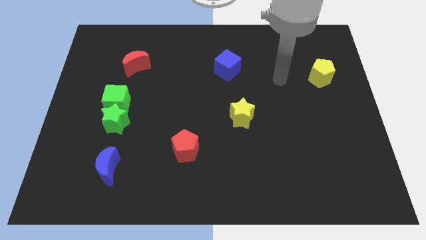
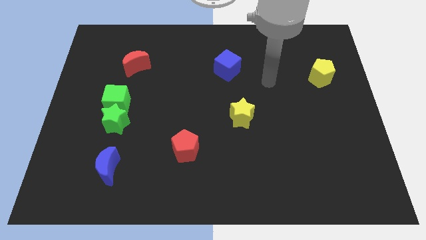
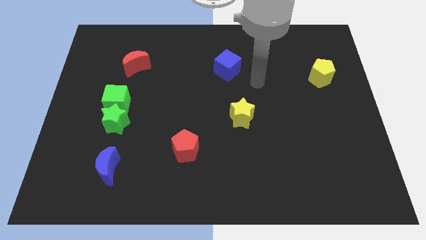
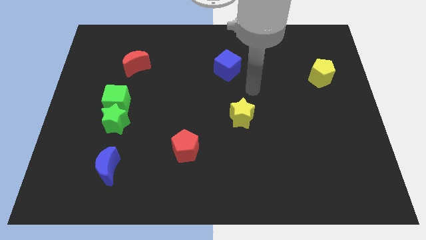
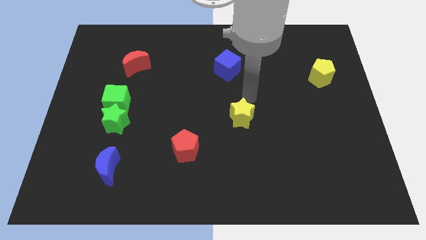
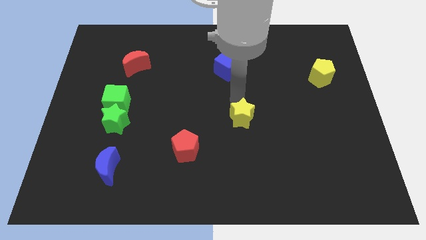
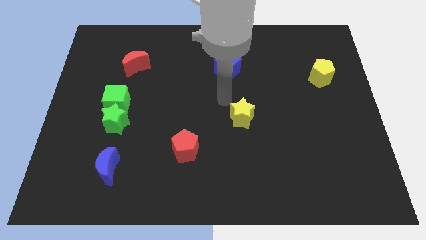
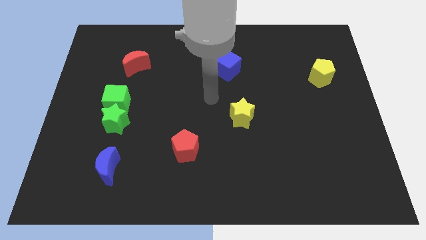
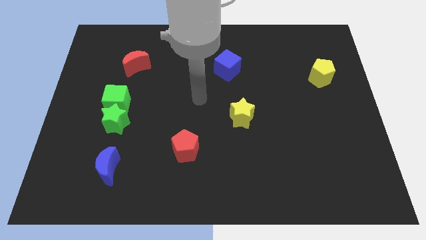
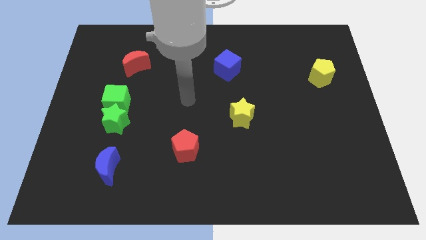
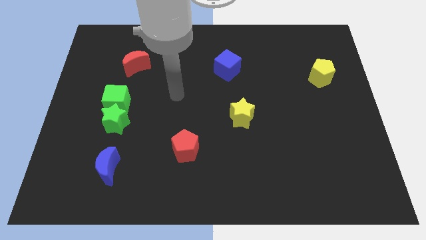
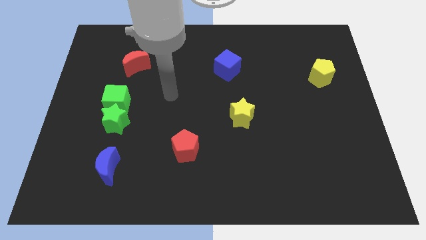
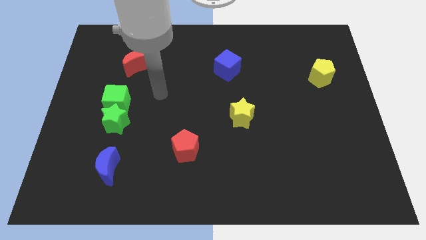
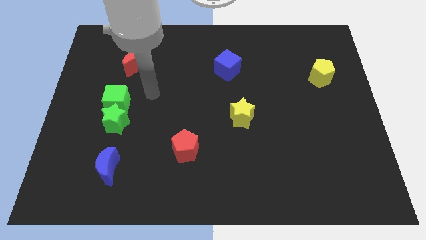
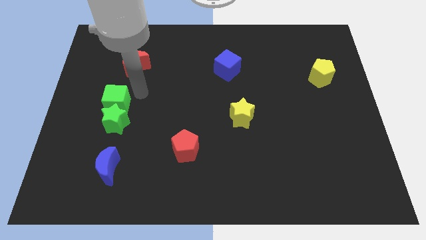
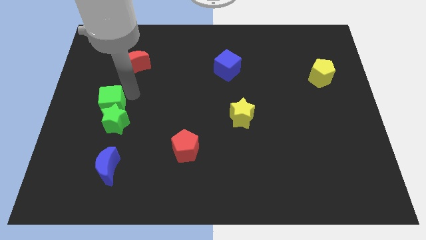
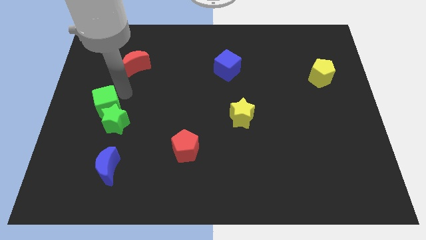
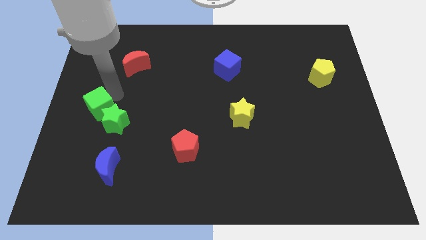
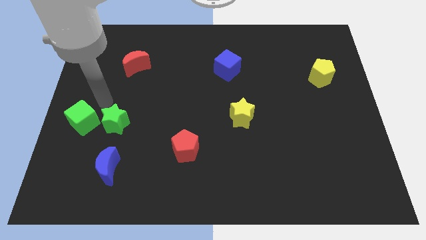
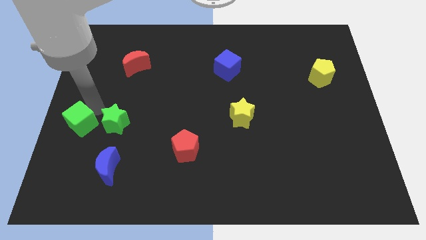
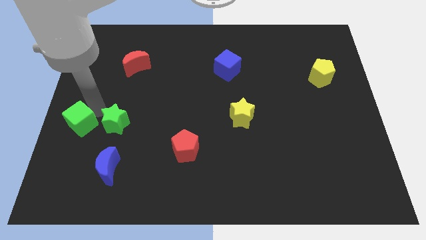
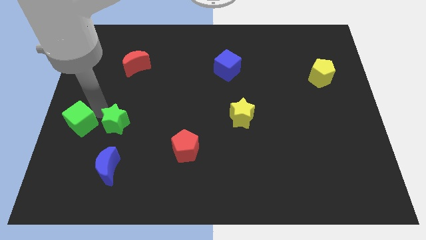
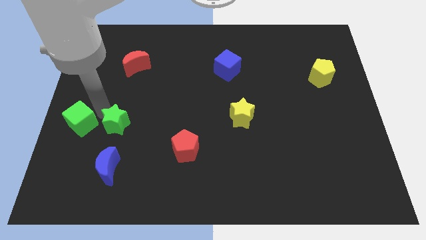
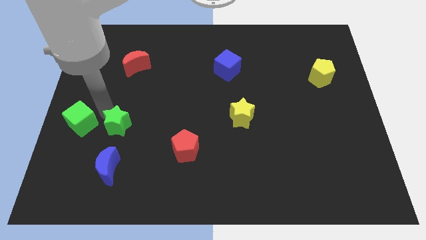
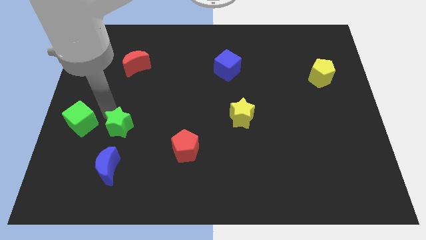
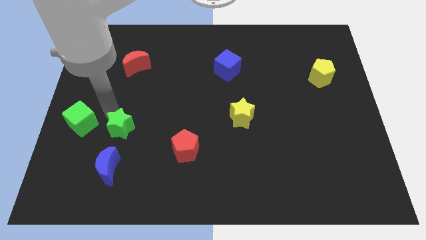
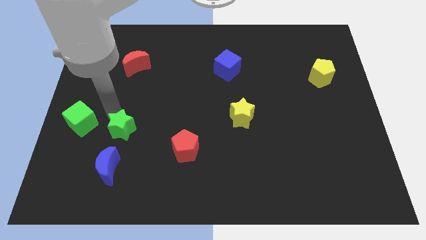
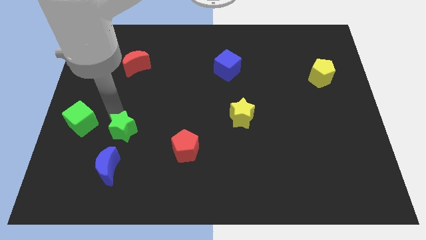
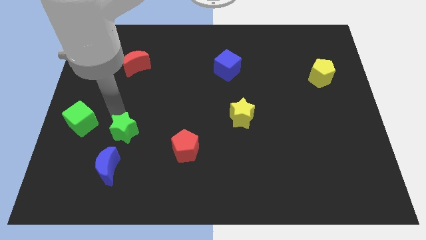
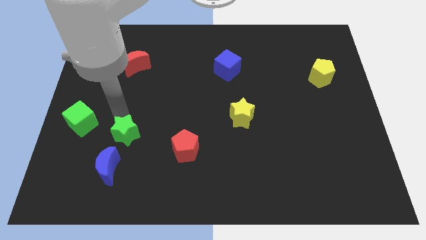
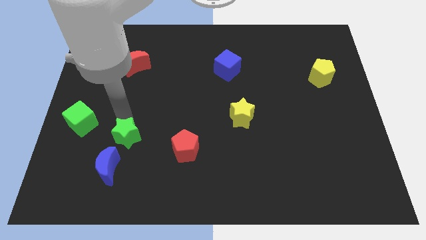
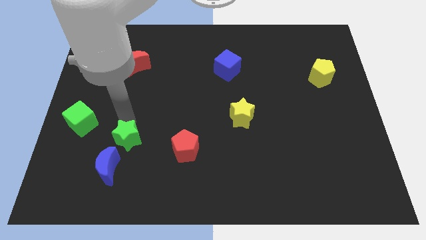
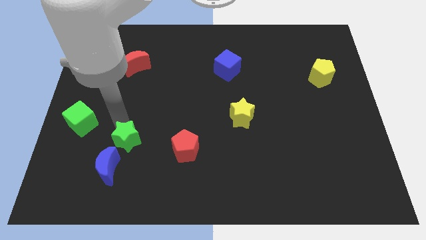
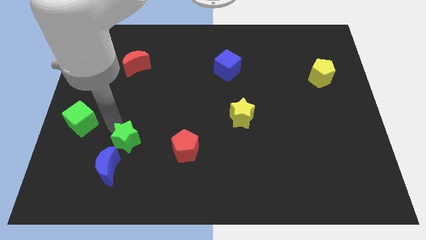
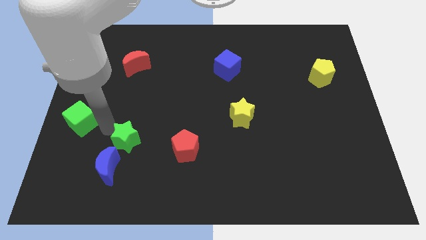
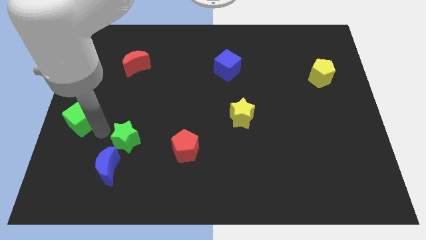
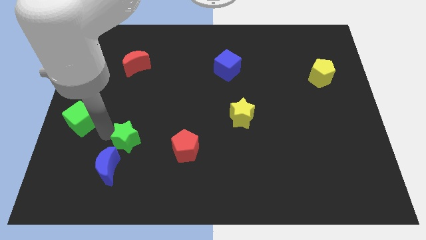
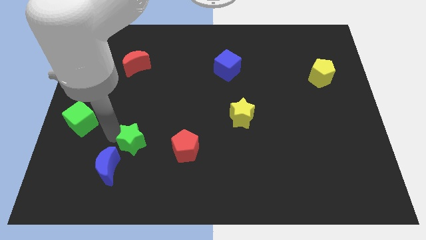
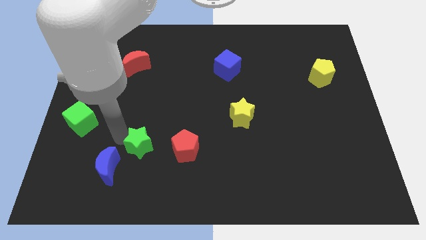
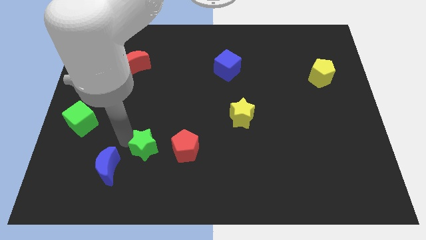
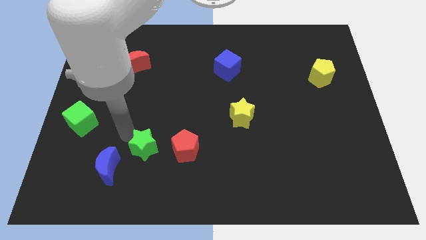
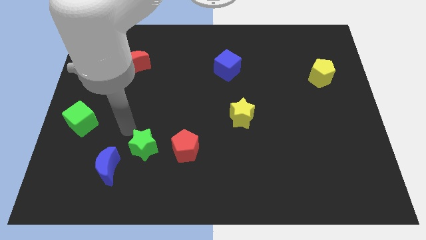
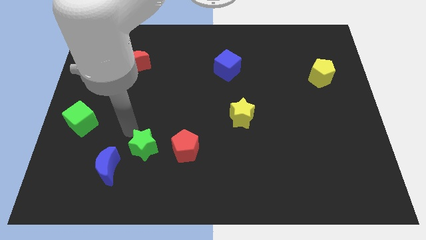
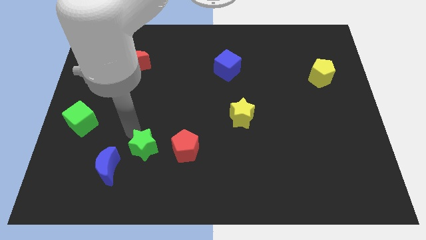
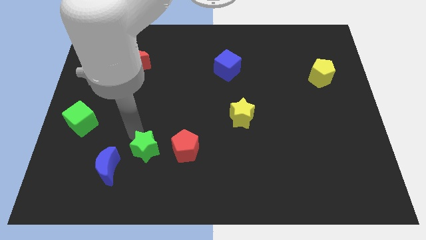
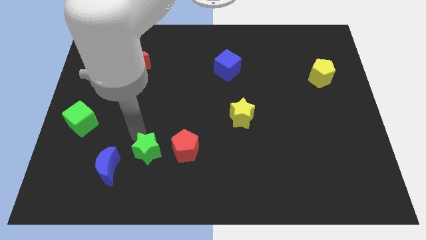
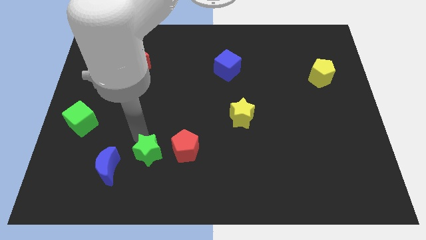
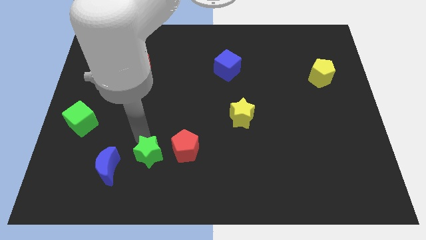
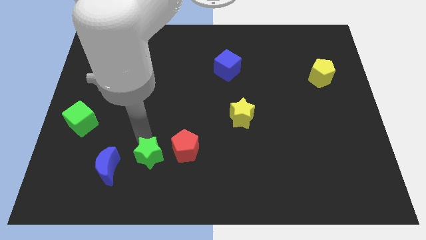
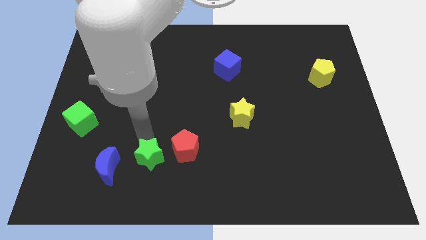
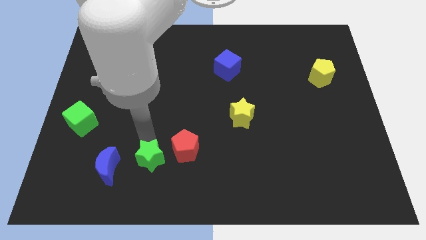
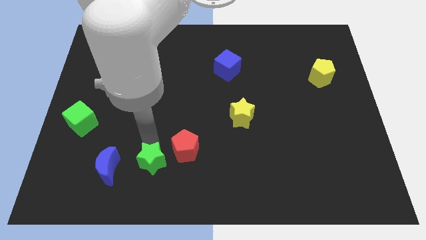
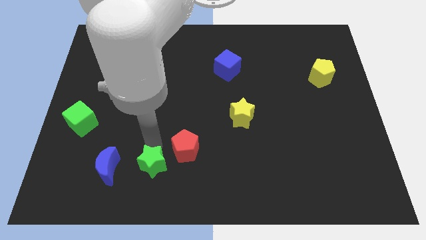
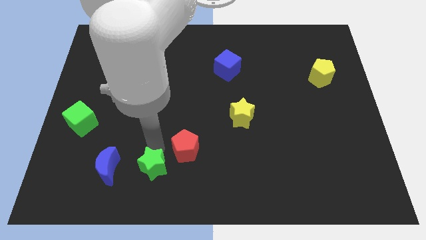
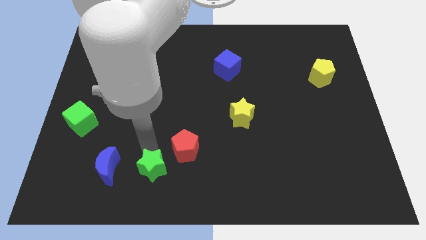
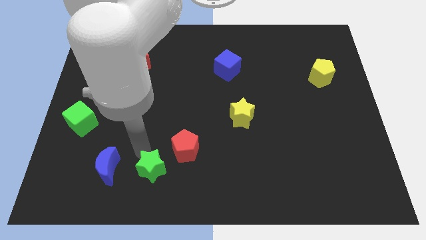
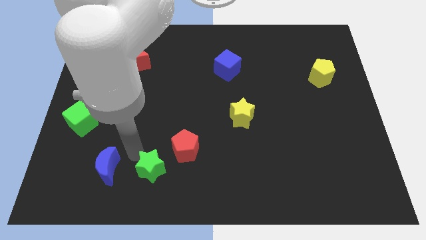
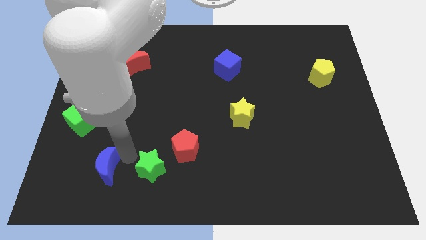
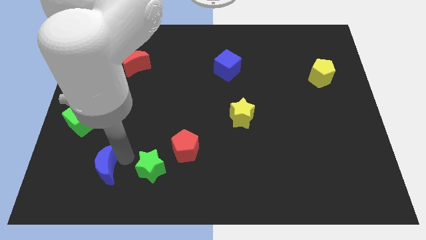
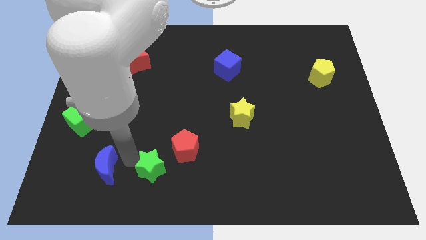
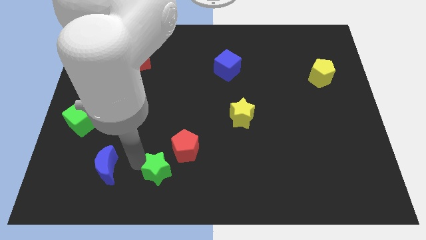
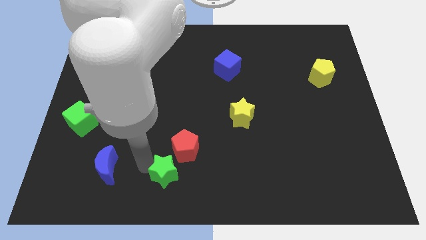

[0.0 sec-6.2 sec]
slide the green star to the bottom
